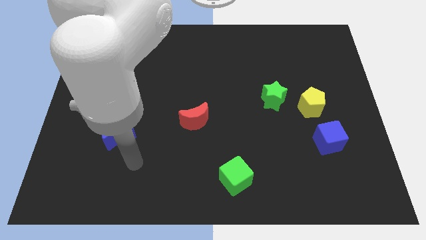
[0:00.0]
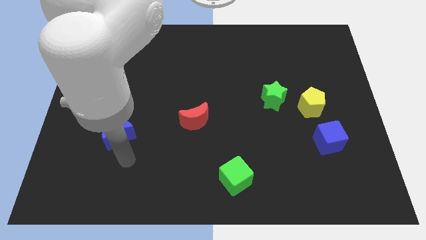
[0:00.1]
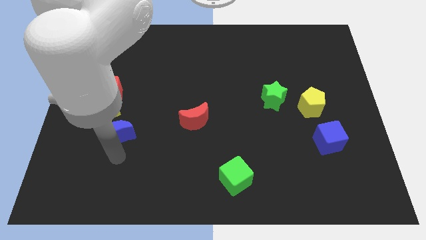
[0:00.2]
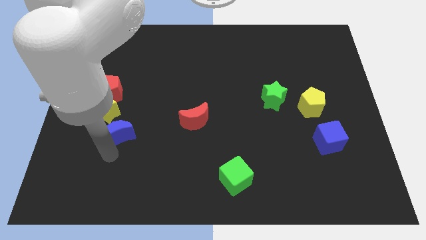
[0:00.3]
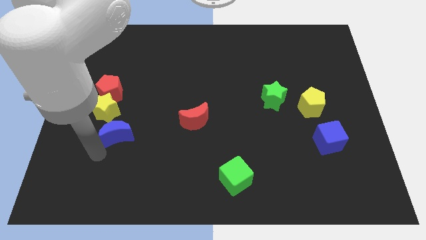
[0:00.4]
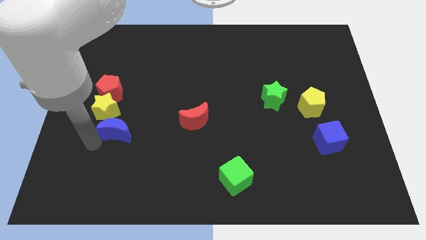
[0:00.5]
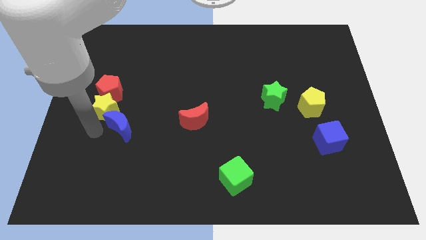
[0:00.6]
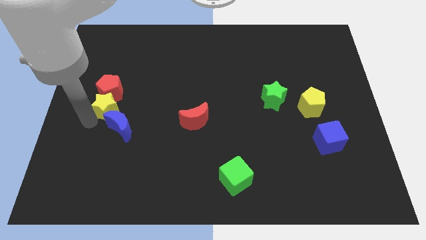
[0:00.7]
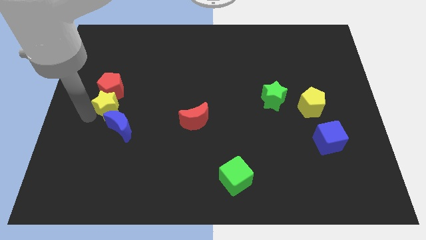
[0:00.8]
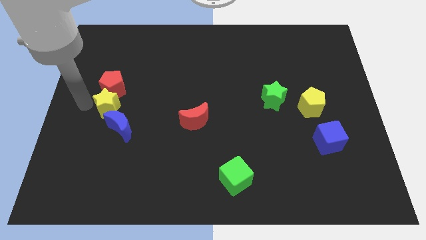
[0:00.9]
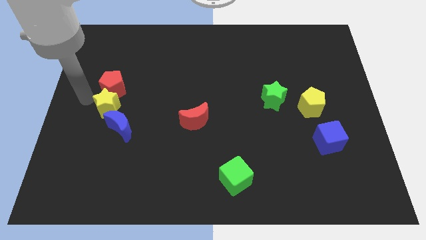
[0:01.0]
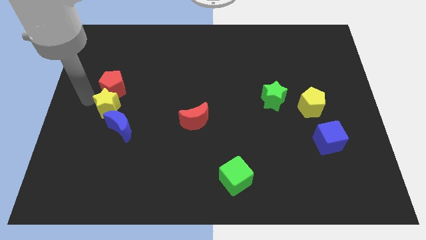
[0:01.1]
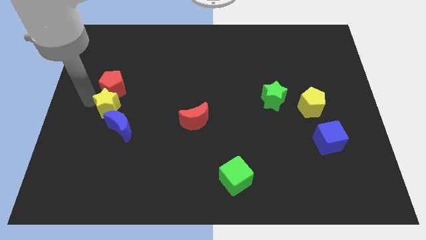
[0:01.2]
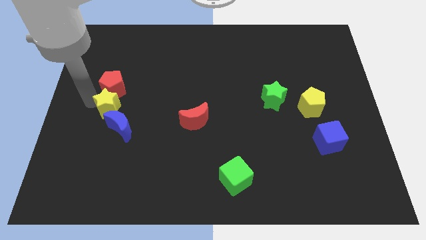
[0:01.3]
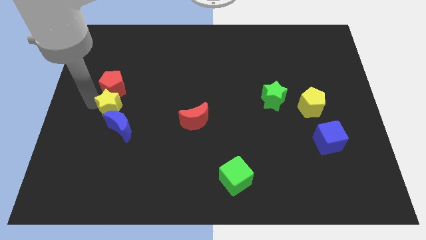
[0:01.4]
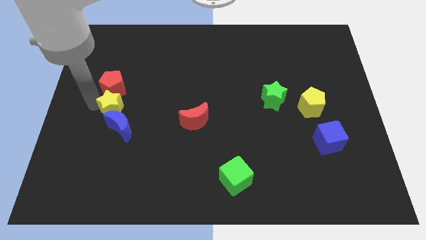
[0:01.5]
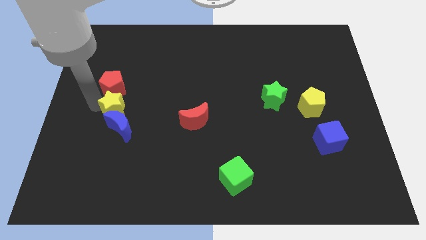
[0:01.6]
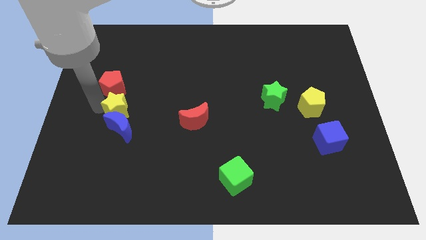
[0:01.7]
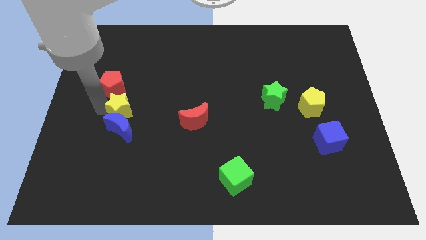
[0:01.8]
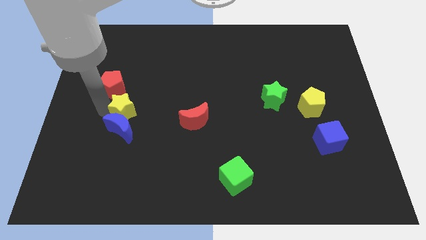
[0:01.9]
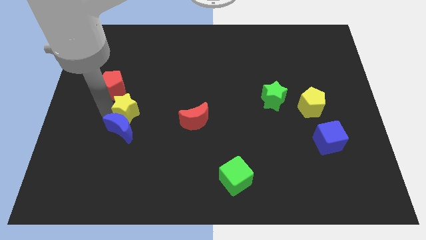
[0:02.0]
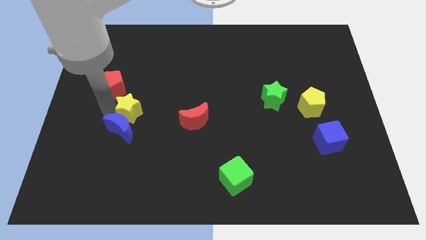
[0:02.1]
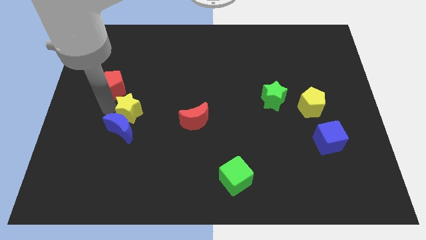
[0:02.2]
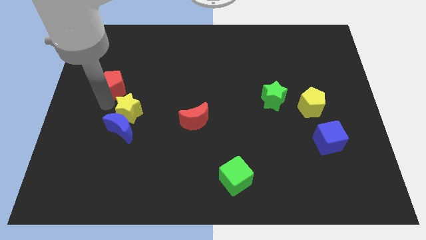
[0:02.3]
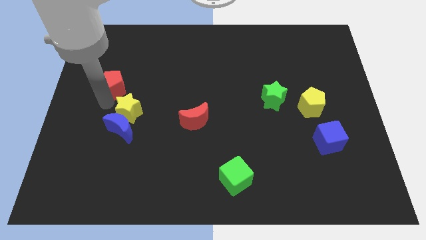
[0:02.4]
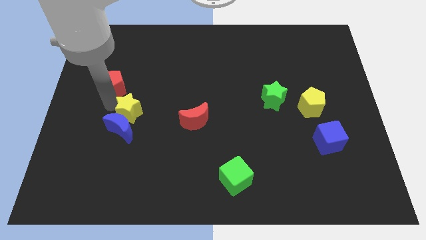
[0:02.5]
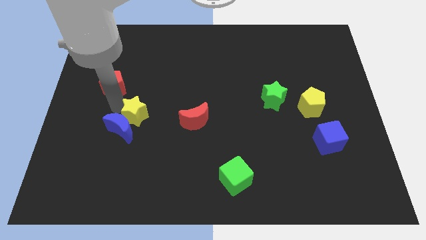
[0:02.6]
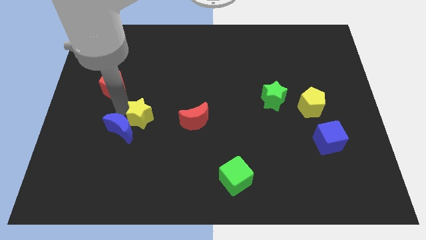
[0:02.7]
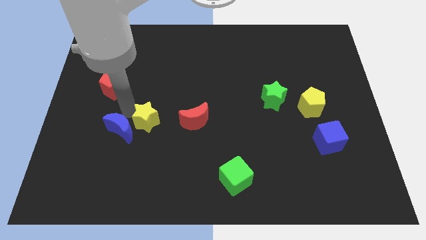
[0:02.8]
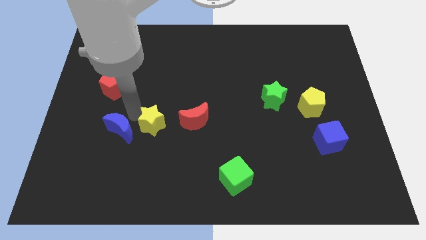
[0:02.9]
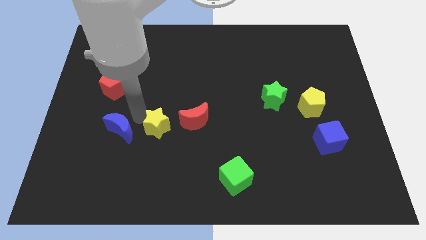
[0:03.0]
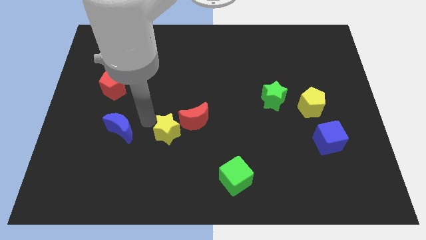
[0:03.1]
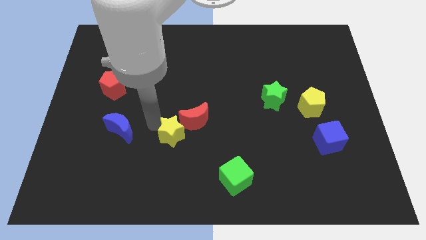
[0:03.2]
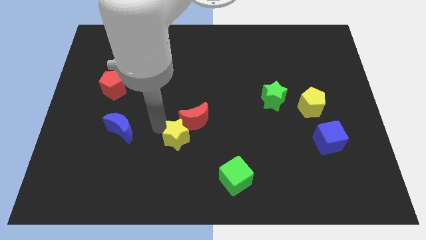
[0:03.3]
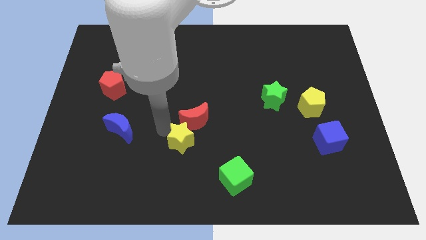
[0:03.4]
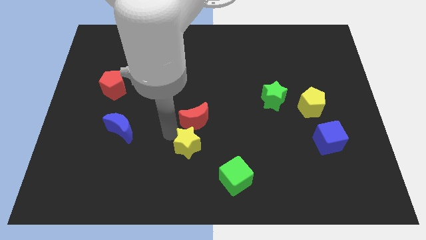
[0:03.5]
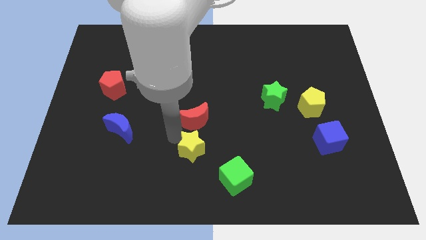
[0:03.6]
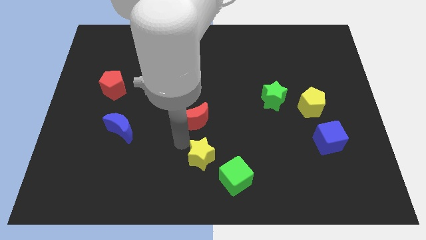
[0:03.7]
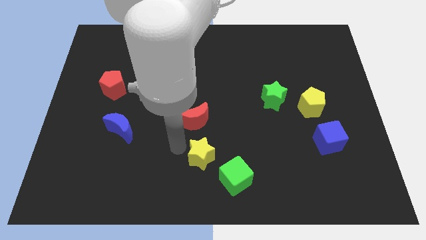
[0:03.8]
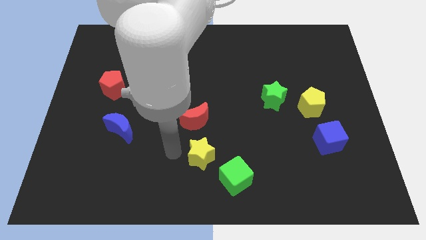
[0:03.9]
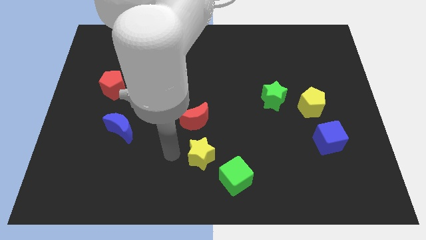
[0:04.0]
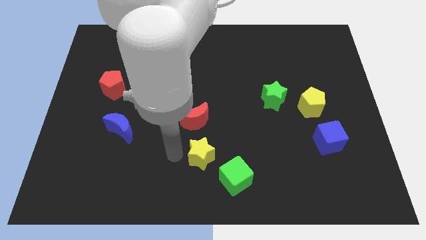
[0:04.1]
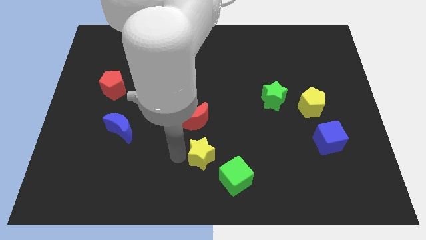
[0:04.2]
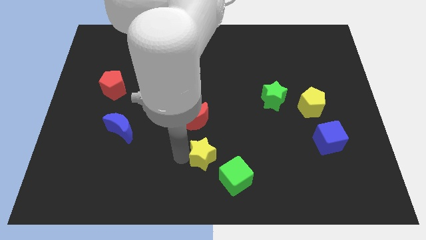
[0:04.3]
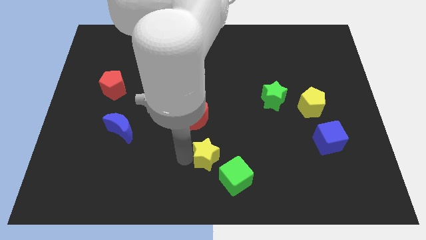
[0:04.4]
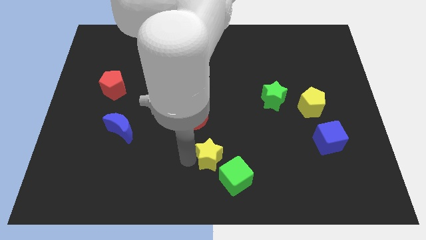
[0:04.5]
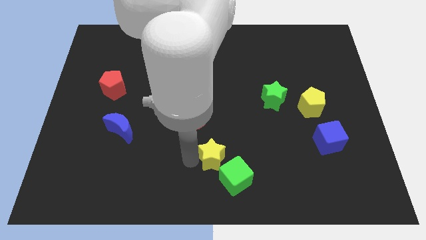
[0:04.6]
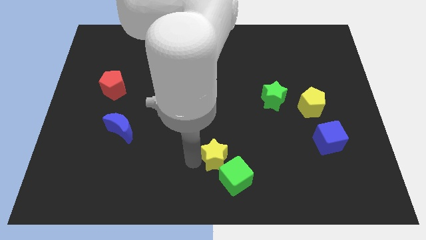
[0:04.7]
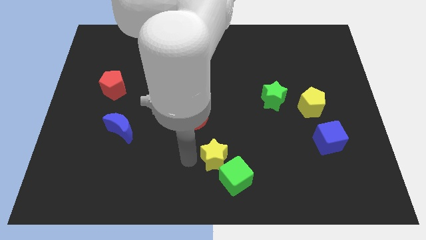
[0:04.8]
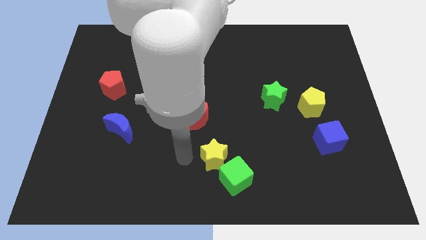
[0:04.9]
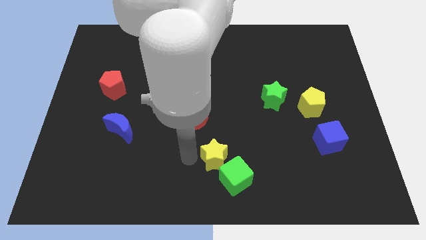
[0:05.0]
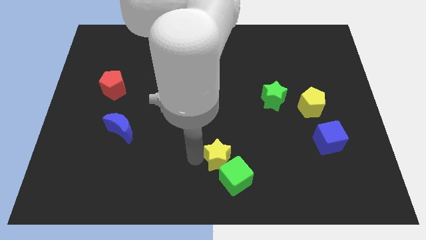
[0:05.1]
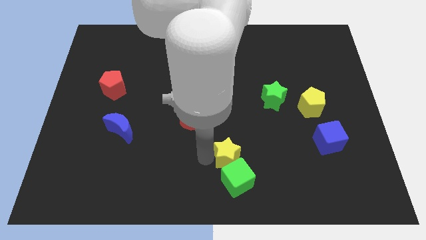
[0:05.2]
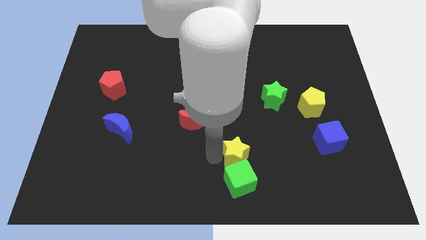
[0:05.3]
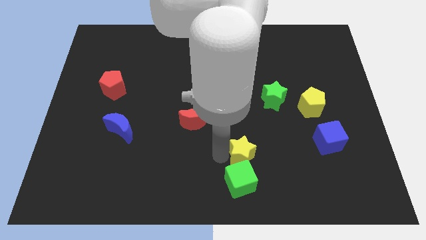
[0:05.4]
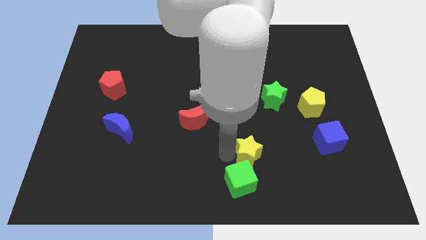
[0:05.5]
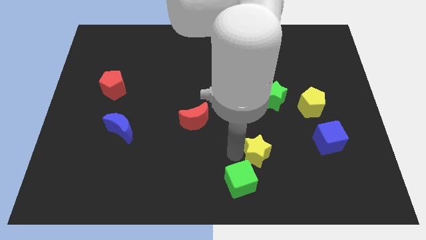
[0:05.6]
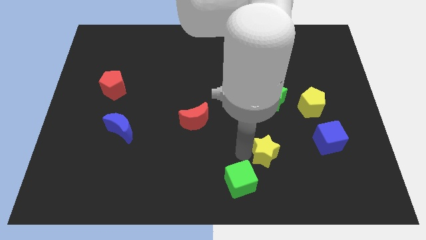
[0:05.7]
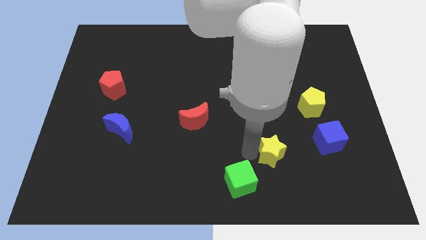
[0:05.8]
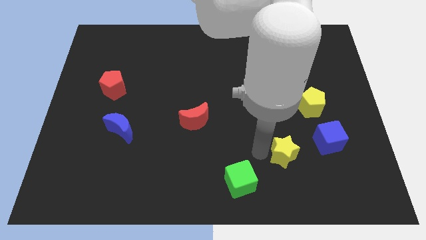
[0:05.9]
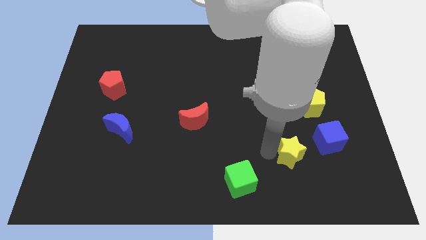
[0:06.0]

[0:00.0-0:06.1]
push the yellow star to the bottom left side of the blue cube
